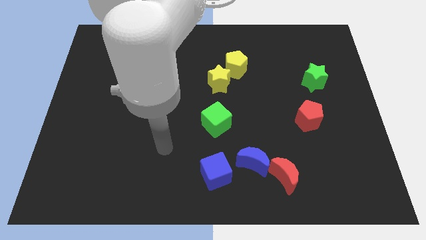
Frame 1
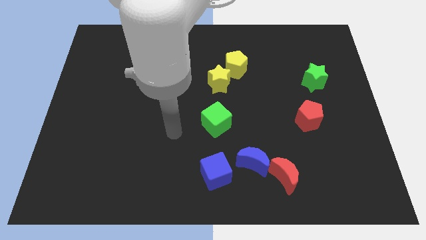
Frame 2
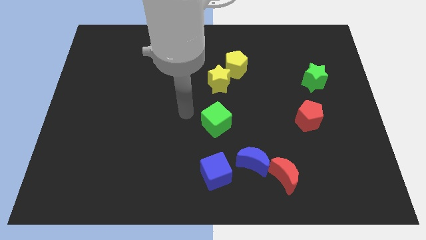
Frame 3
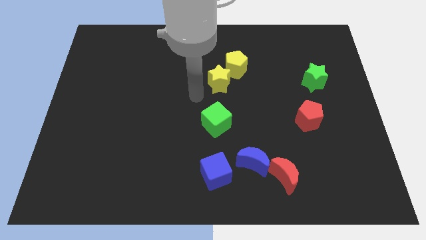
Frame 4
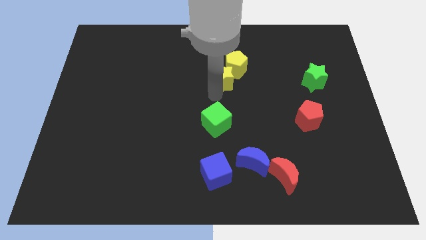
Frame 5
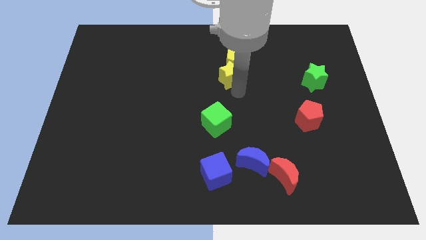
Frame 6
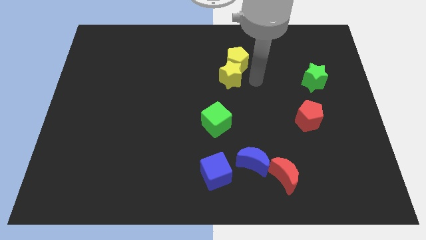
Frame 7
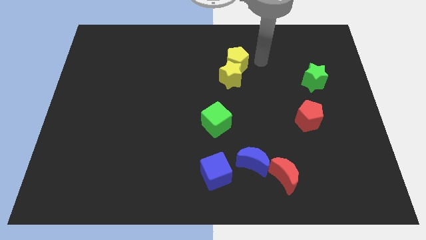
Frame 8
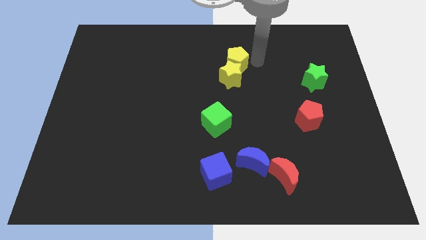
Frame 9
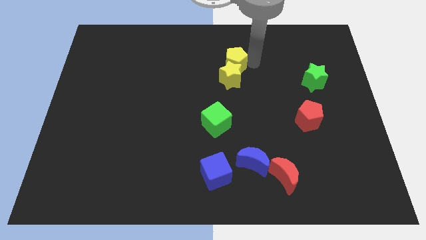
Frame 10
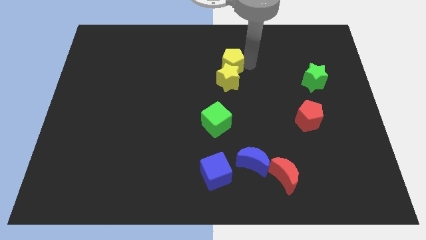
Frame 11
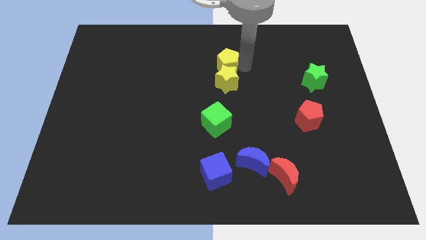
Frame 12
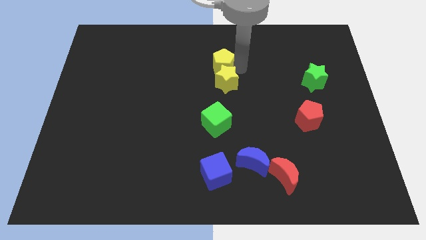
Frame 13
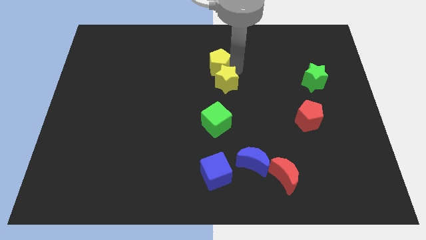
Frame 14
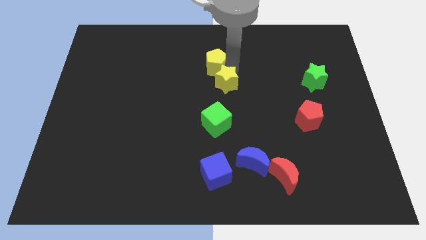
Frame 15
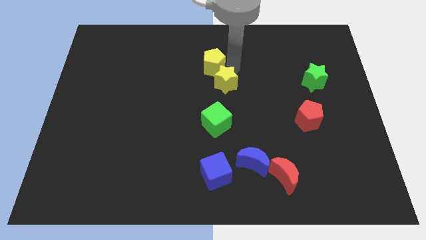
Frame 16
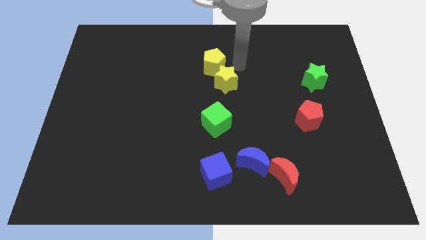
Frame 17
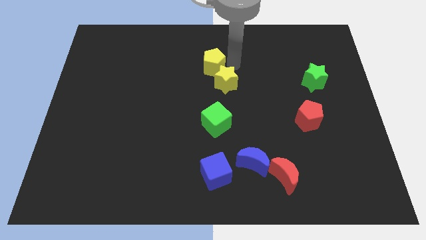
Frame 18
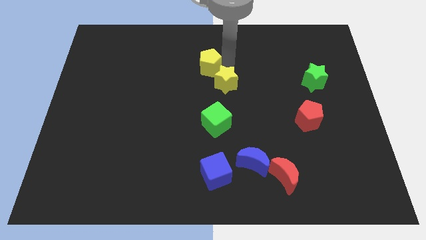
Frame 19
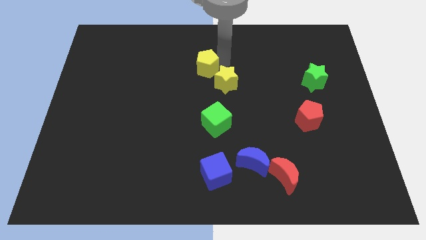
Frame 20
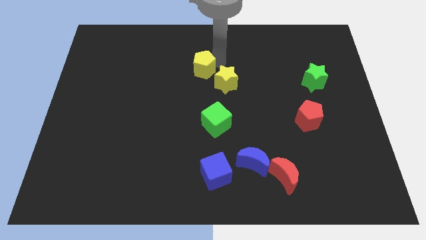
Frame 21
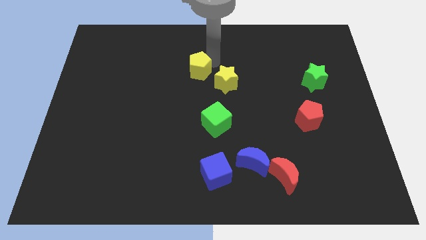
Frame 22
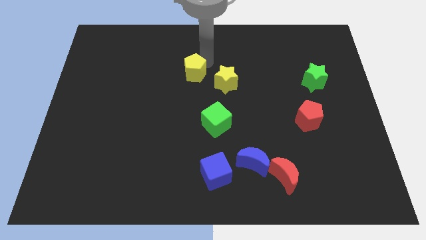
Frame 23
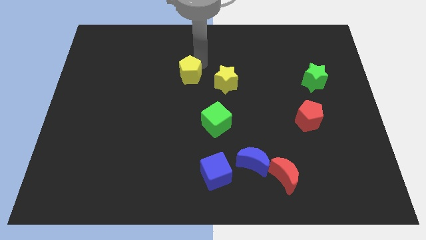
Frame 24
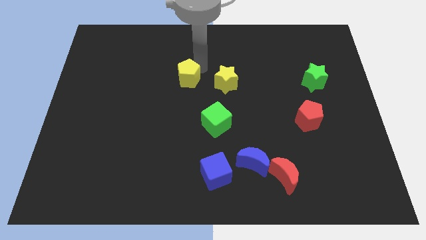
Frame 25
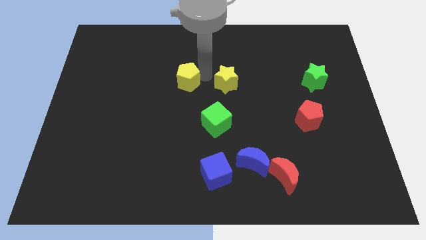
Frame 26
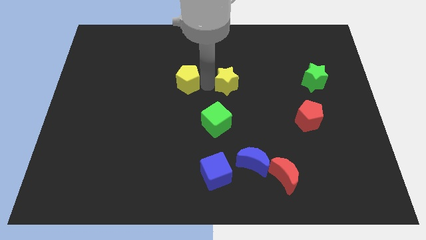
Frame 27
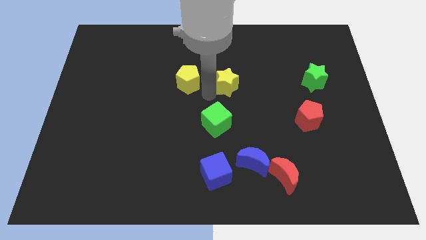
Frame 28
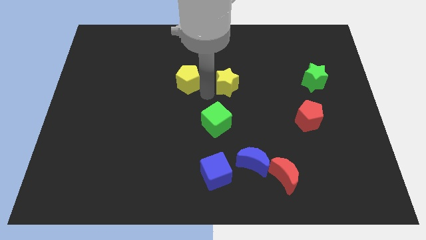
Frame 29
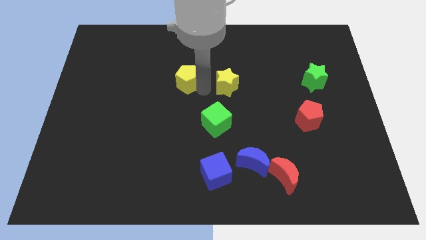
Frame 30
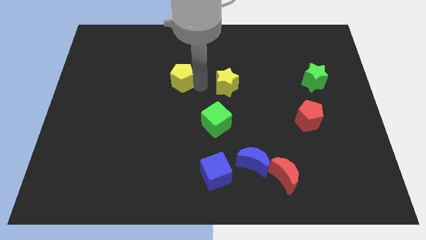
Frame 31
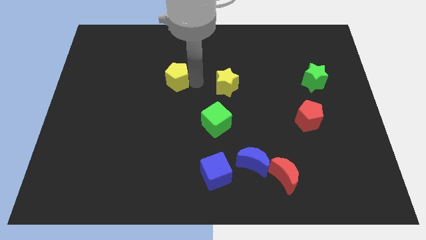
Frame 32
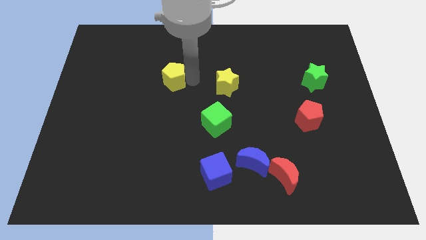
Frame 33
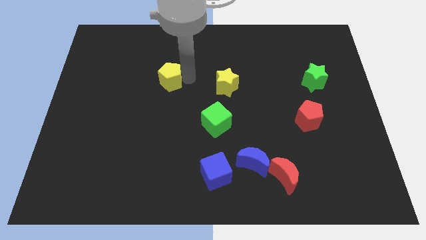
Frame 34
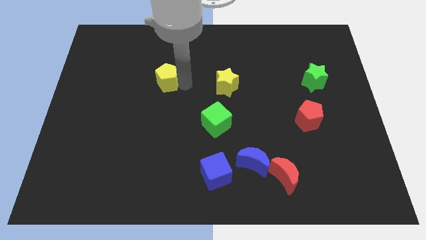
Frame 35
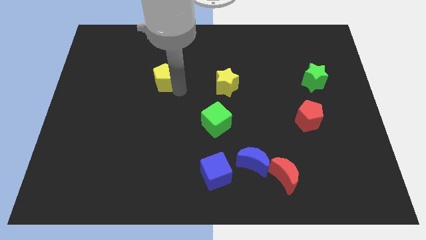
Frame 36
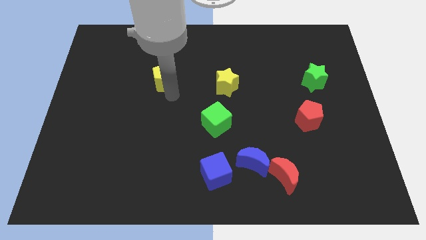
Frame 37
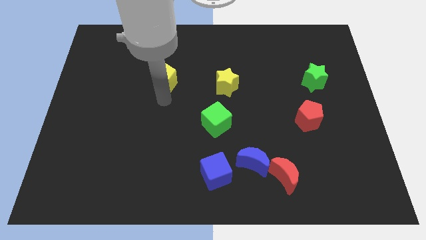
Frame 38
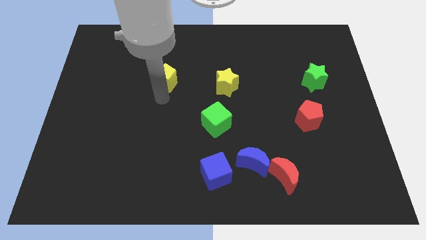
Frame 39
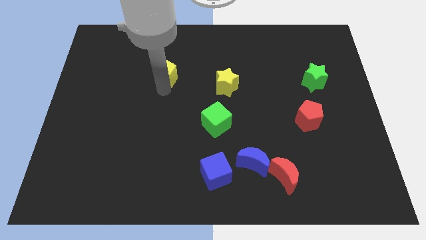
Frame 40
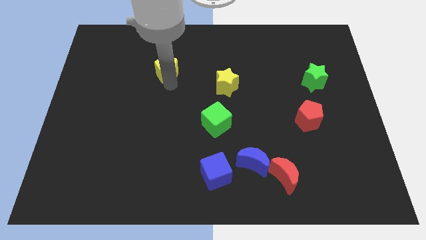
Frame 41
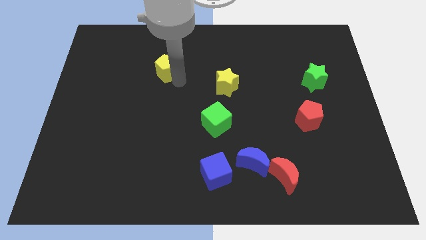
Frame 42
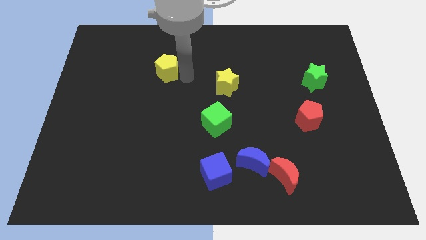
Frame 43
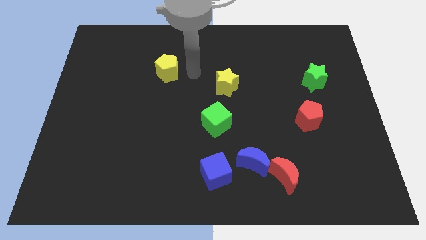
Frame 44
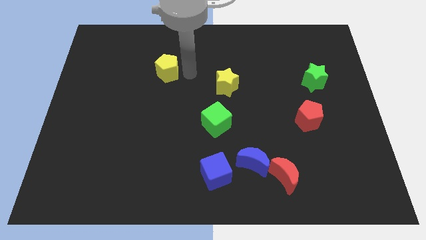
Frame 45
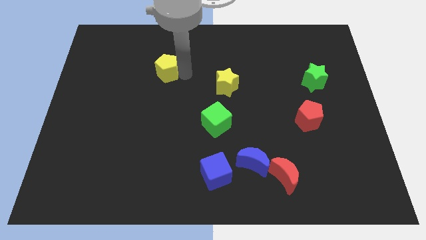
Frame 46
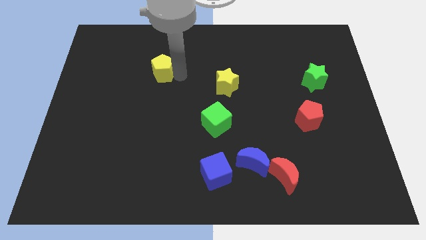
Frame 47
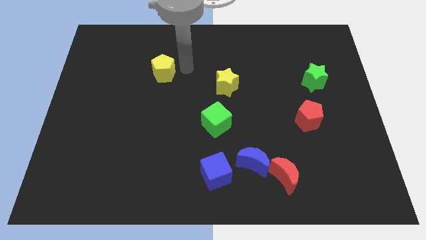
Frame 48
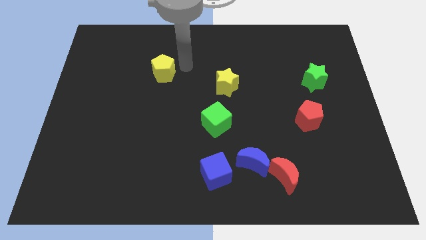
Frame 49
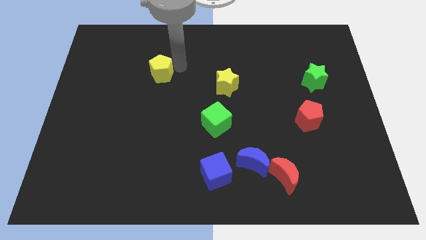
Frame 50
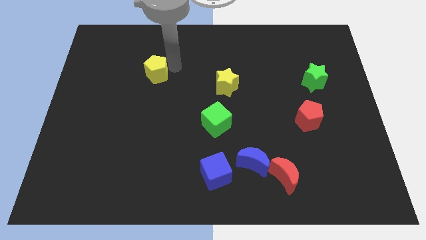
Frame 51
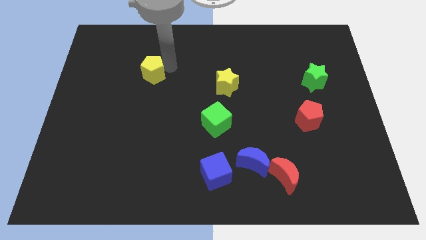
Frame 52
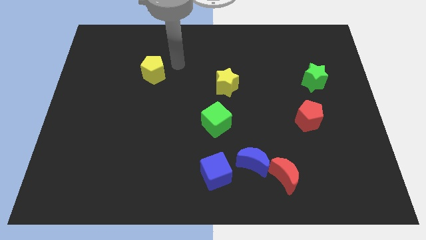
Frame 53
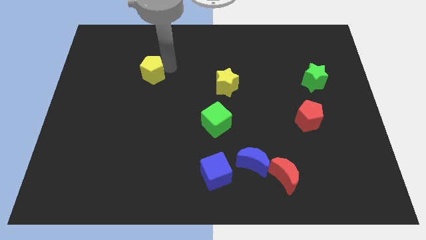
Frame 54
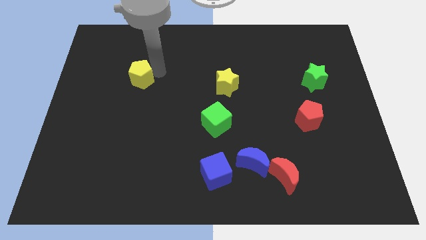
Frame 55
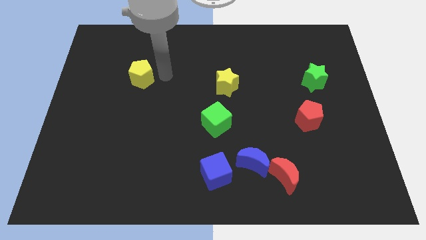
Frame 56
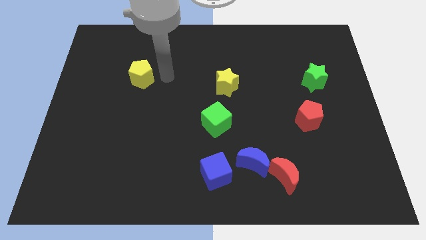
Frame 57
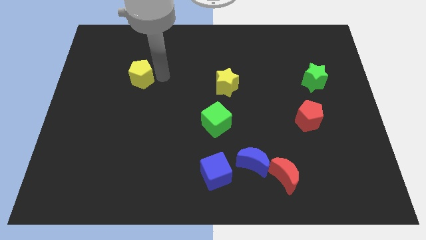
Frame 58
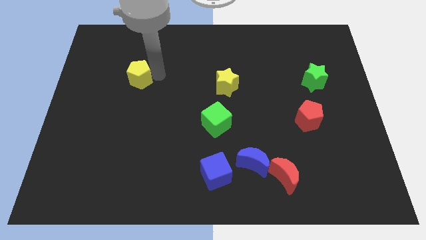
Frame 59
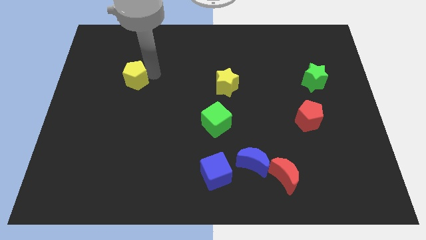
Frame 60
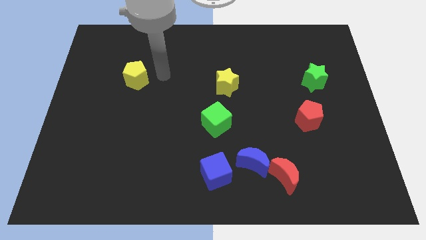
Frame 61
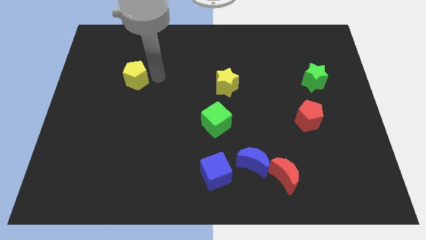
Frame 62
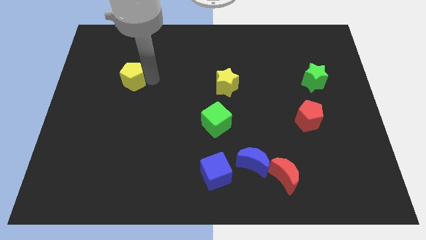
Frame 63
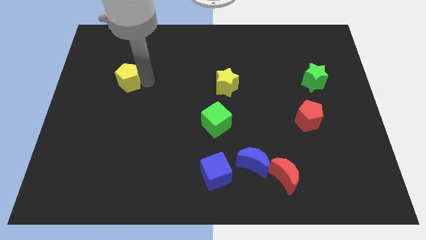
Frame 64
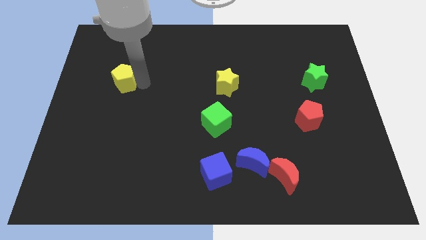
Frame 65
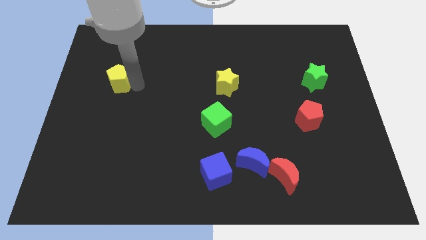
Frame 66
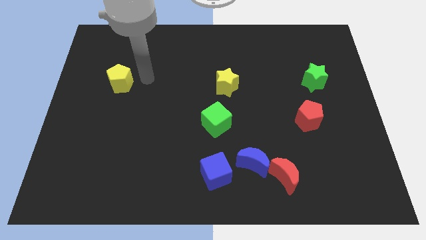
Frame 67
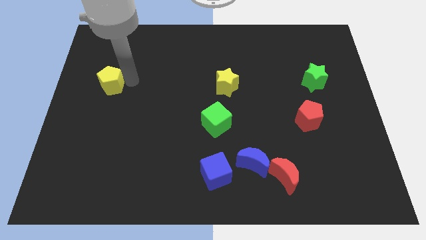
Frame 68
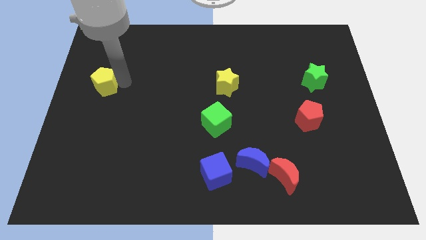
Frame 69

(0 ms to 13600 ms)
slide the yellow pentagon to the left side of the board
